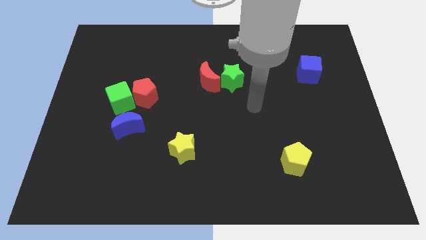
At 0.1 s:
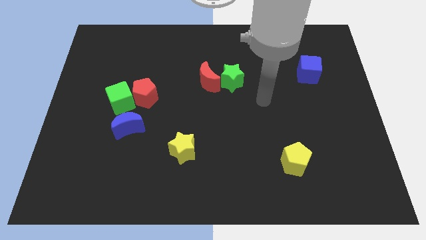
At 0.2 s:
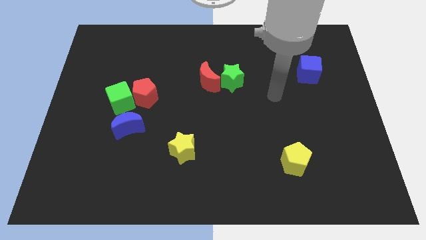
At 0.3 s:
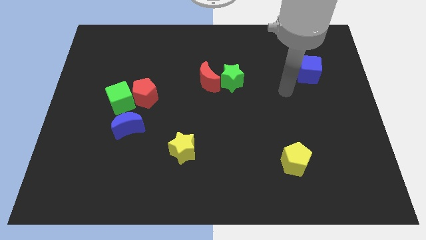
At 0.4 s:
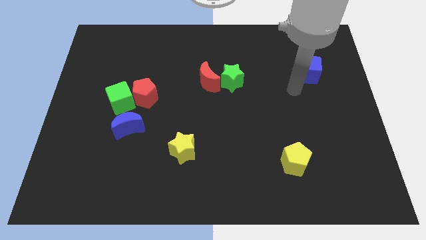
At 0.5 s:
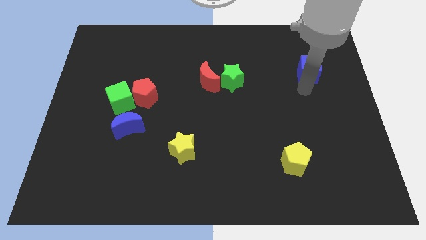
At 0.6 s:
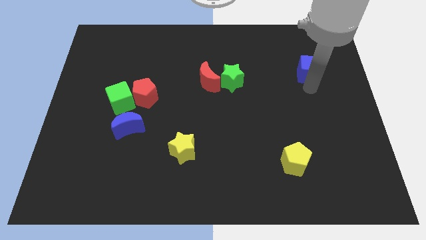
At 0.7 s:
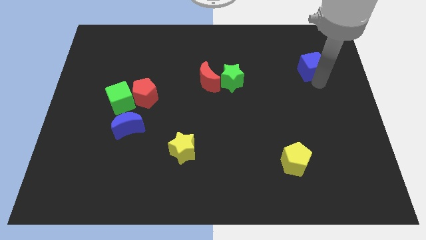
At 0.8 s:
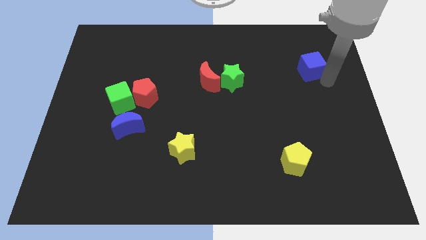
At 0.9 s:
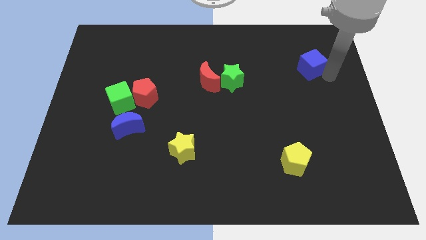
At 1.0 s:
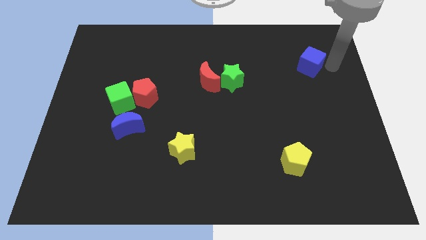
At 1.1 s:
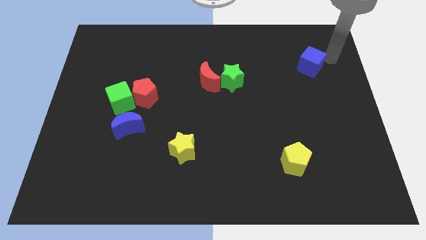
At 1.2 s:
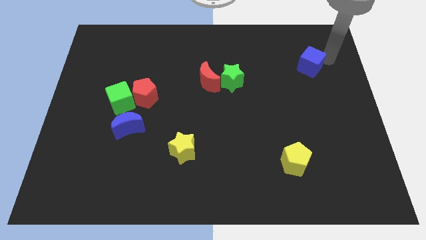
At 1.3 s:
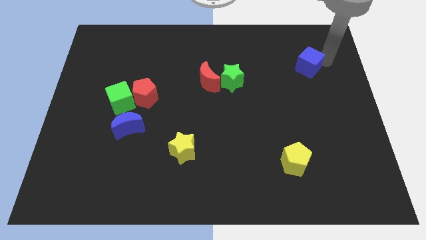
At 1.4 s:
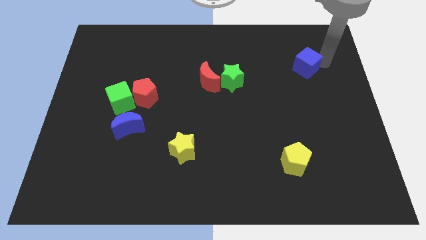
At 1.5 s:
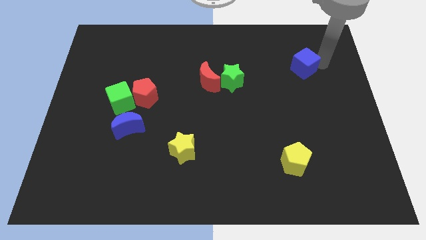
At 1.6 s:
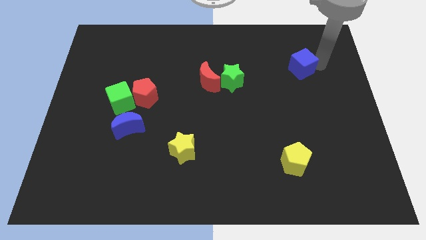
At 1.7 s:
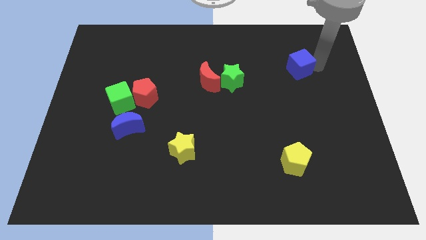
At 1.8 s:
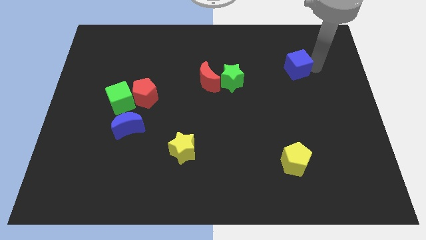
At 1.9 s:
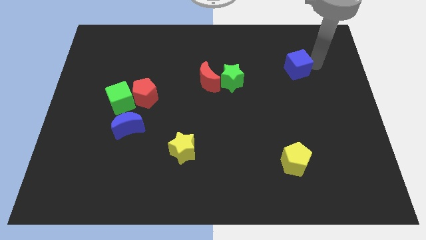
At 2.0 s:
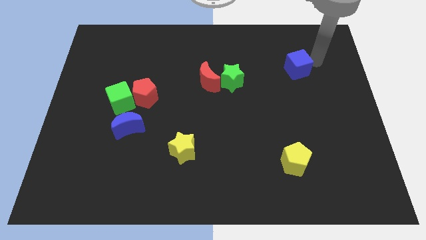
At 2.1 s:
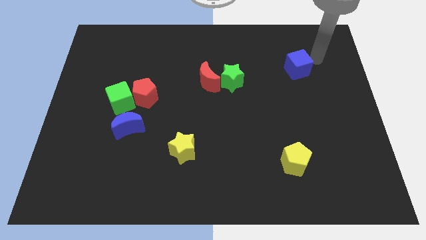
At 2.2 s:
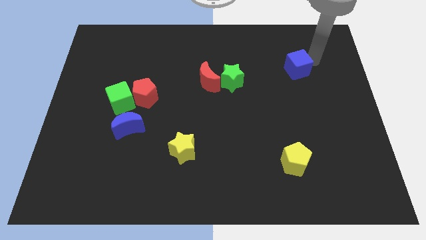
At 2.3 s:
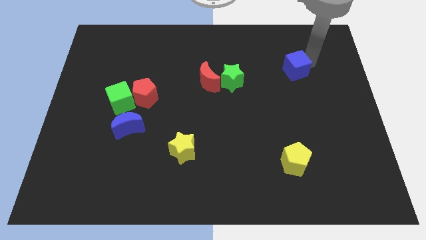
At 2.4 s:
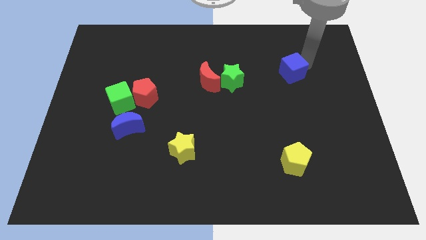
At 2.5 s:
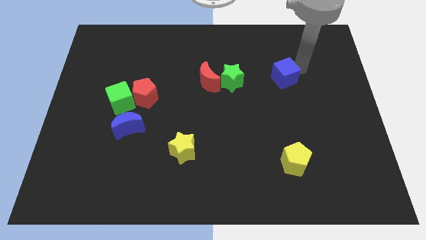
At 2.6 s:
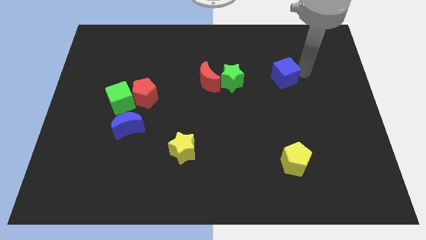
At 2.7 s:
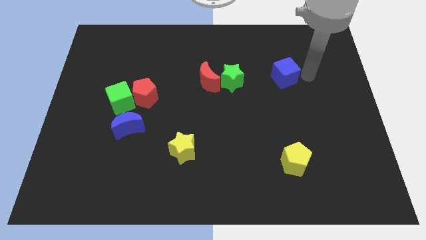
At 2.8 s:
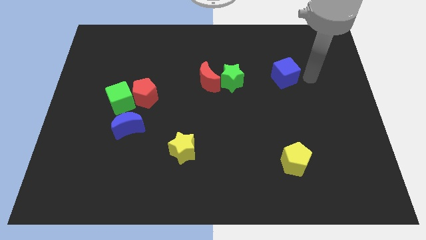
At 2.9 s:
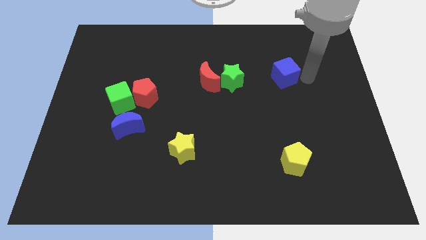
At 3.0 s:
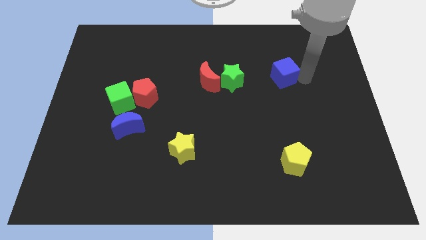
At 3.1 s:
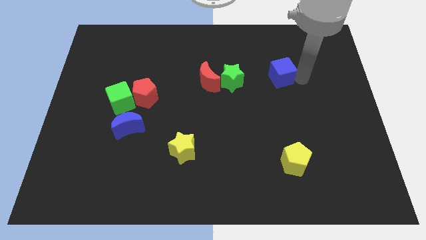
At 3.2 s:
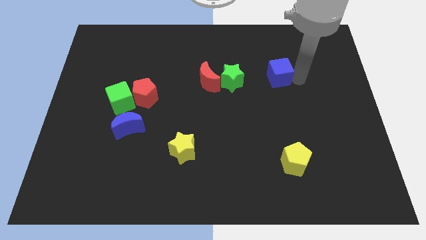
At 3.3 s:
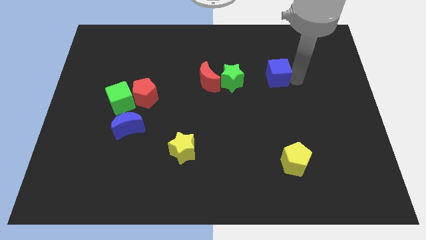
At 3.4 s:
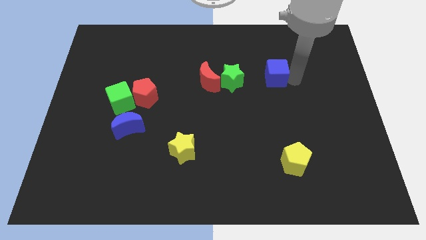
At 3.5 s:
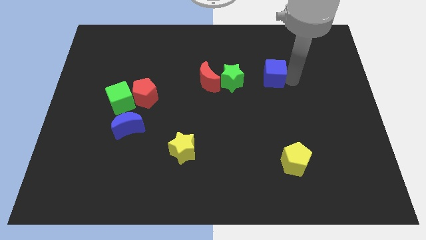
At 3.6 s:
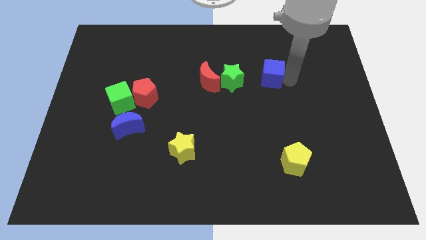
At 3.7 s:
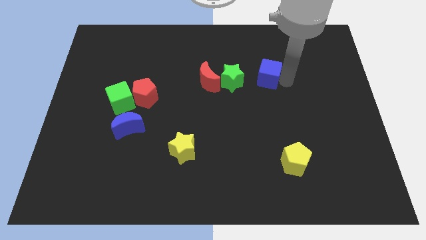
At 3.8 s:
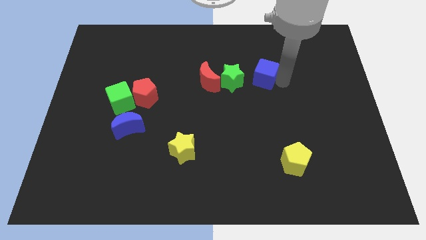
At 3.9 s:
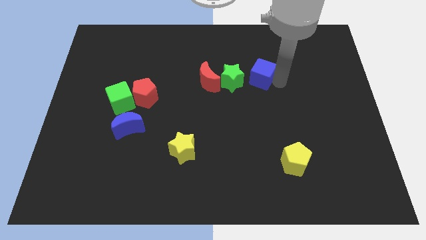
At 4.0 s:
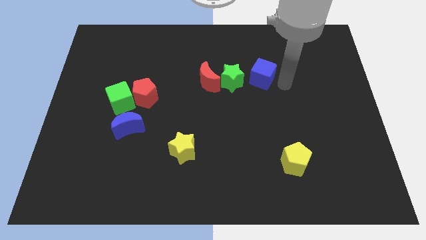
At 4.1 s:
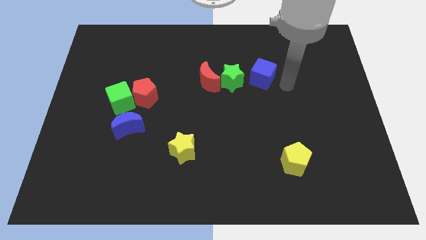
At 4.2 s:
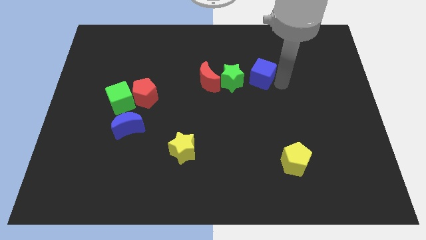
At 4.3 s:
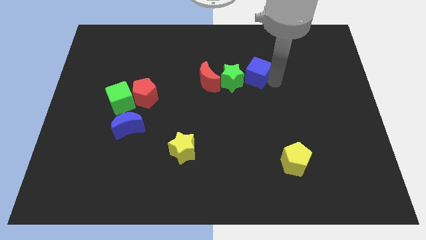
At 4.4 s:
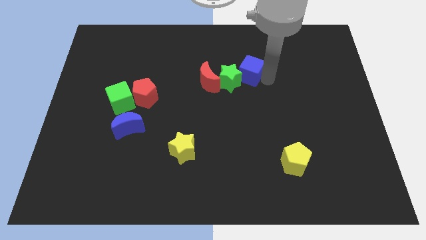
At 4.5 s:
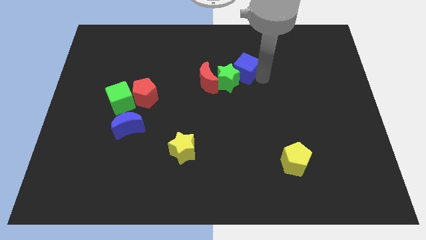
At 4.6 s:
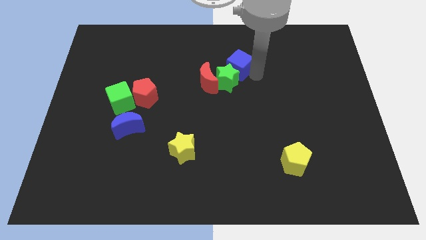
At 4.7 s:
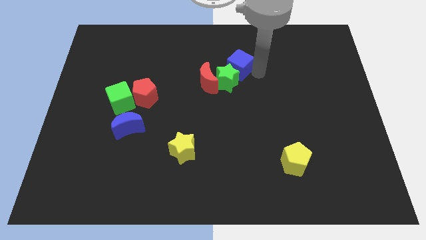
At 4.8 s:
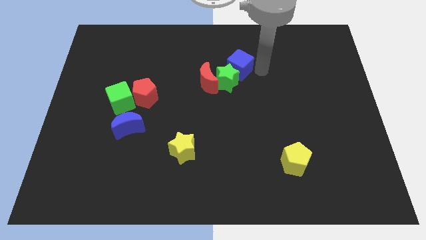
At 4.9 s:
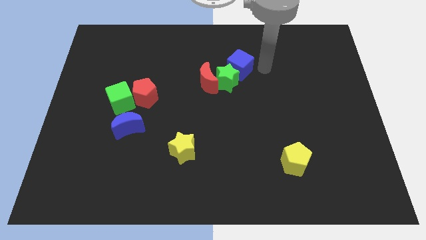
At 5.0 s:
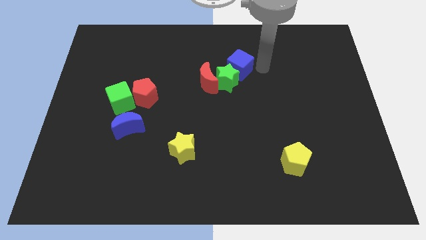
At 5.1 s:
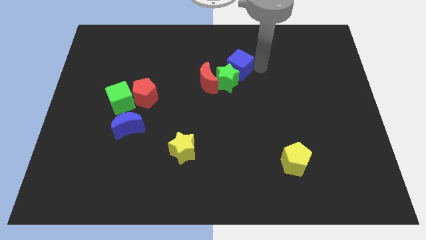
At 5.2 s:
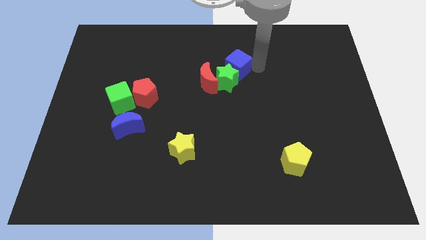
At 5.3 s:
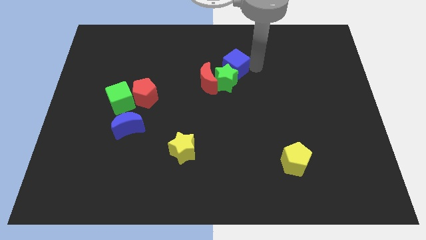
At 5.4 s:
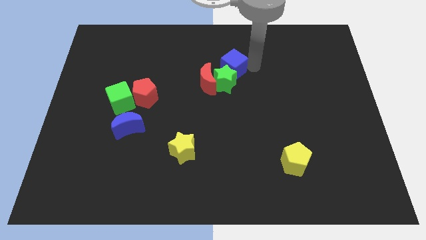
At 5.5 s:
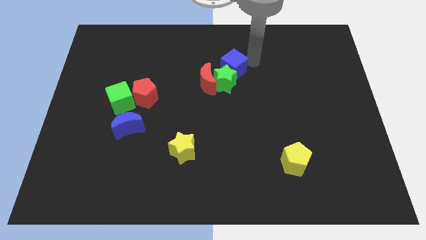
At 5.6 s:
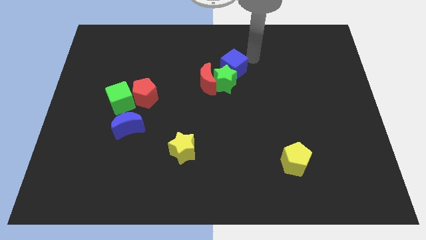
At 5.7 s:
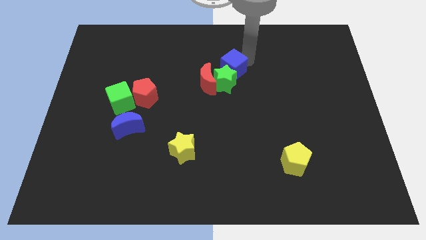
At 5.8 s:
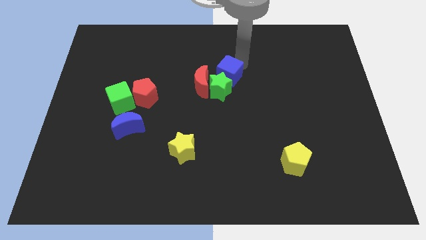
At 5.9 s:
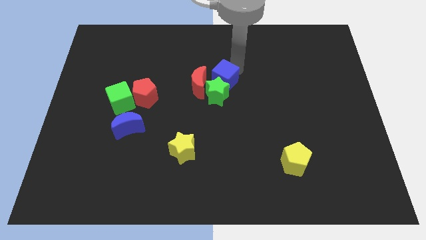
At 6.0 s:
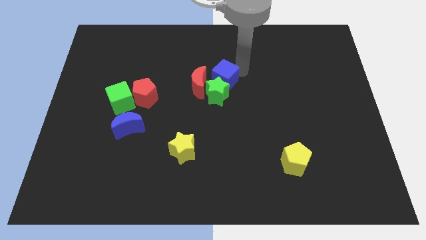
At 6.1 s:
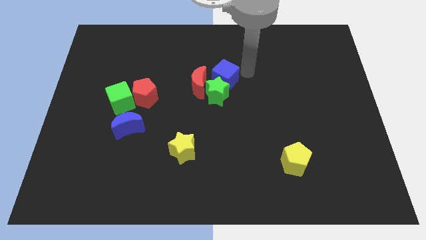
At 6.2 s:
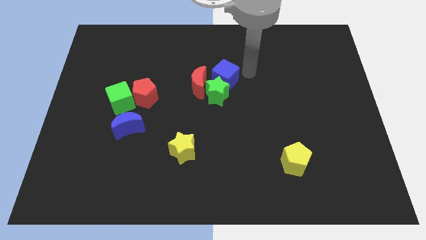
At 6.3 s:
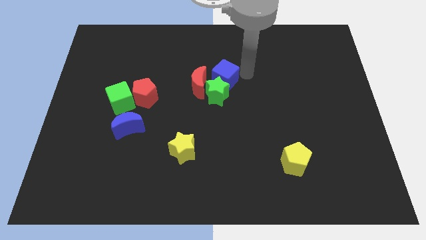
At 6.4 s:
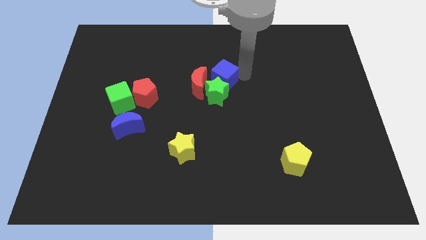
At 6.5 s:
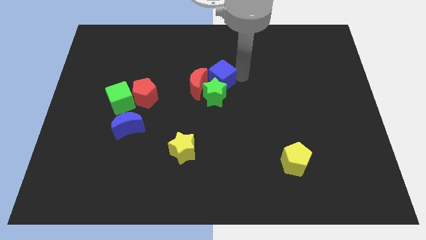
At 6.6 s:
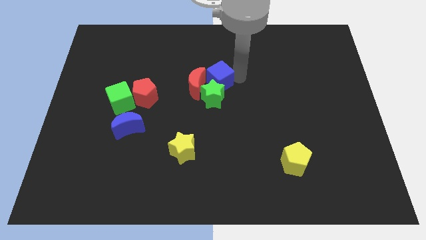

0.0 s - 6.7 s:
put the blue cube towards the red moon

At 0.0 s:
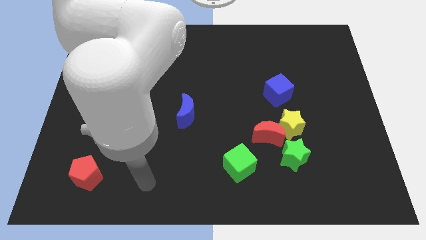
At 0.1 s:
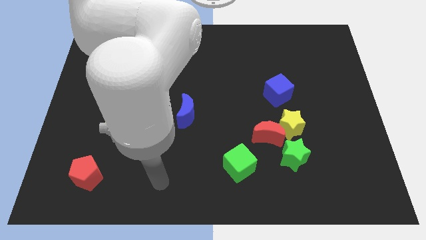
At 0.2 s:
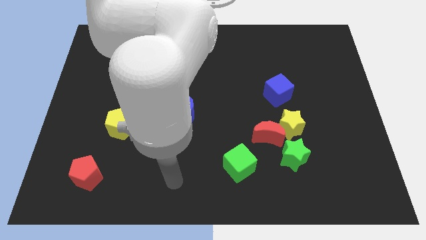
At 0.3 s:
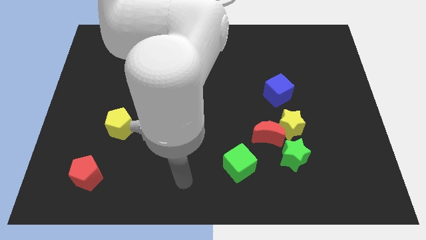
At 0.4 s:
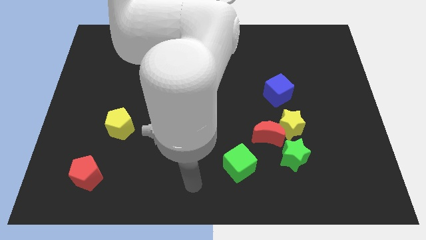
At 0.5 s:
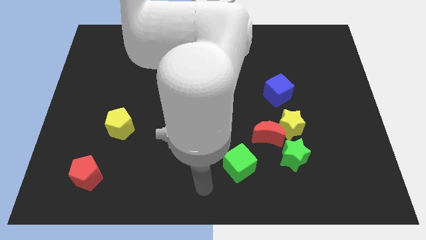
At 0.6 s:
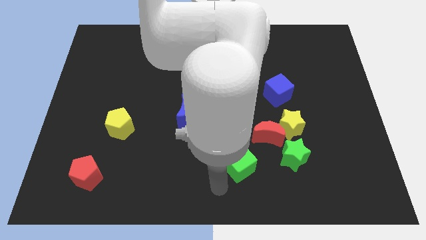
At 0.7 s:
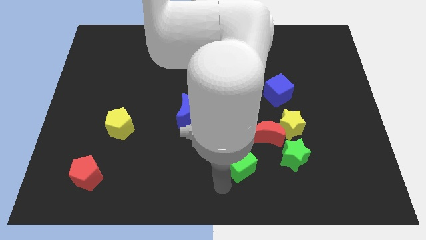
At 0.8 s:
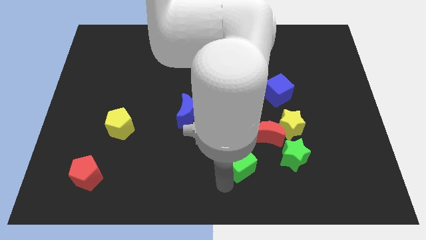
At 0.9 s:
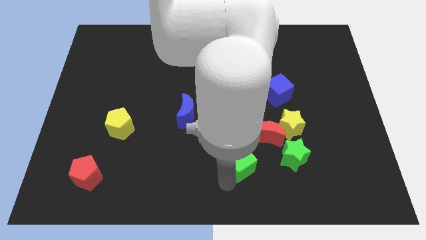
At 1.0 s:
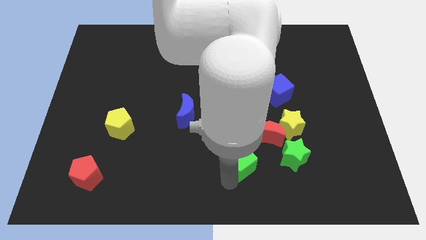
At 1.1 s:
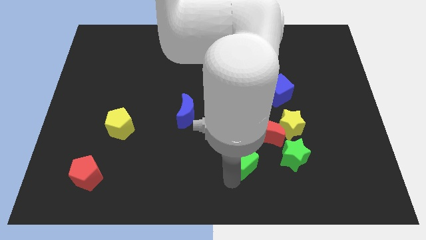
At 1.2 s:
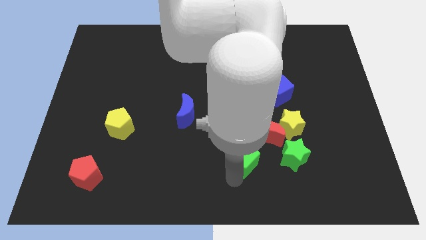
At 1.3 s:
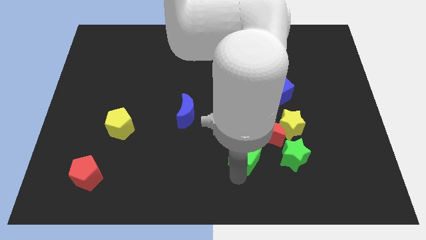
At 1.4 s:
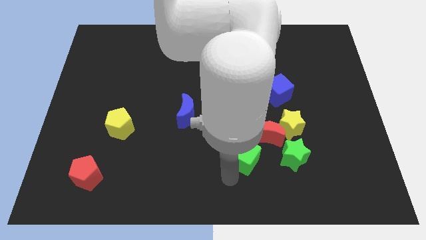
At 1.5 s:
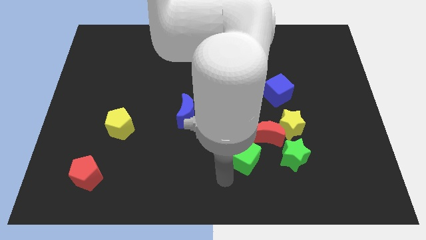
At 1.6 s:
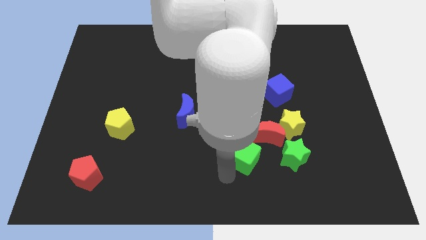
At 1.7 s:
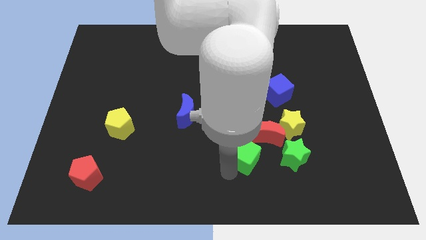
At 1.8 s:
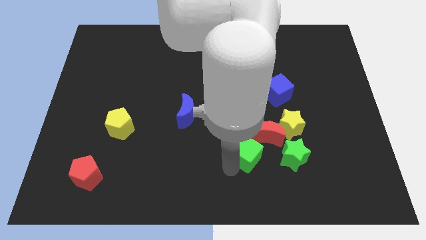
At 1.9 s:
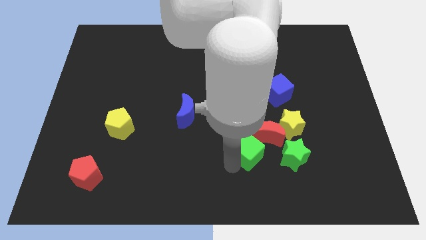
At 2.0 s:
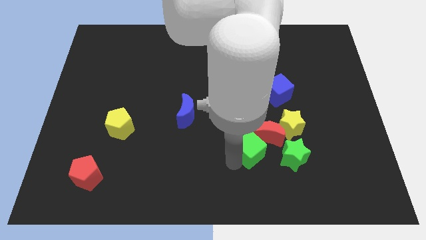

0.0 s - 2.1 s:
push the green cube next to the red moon
